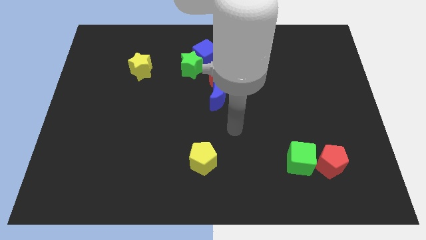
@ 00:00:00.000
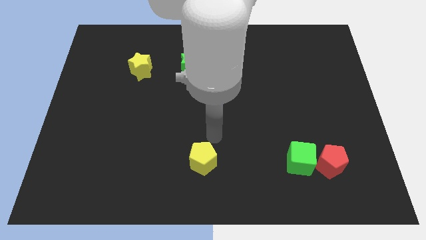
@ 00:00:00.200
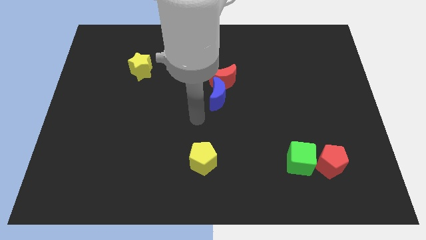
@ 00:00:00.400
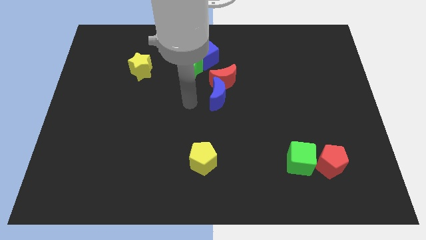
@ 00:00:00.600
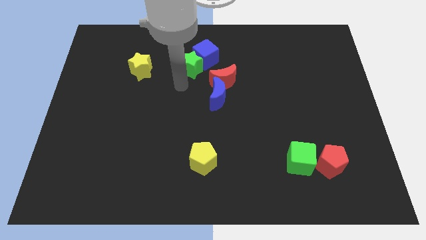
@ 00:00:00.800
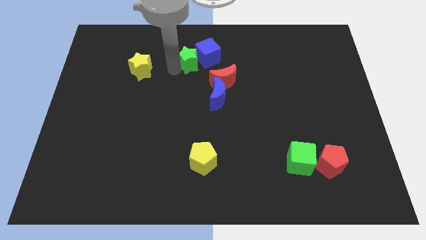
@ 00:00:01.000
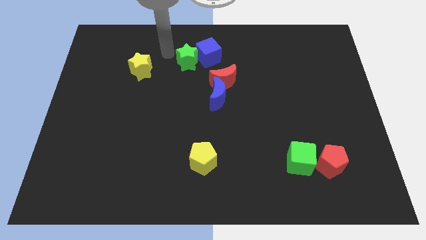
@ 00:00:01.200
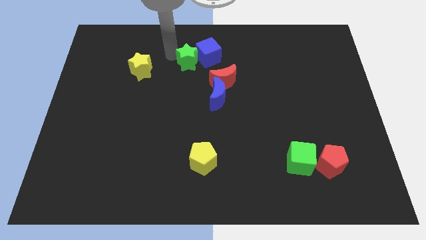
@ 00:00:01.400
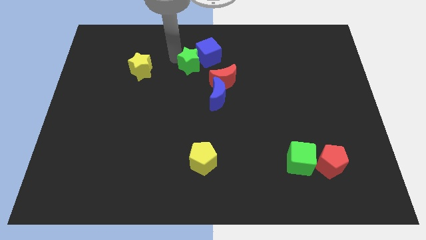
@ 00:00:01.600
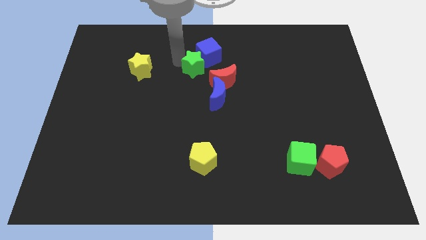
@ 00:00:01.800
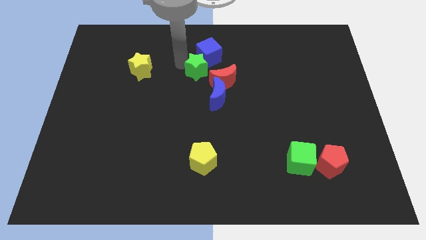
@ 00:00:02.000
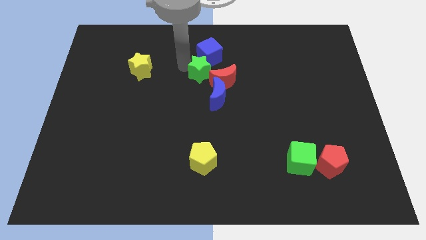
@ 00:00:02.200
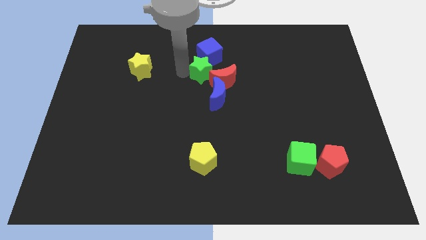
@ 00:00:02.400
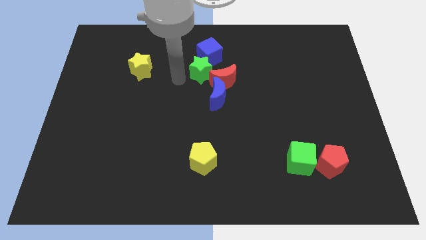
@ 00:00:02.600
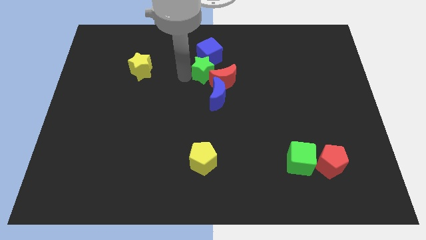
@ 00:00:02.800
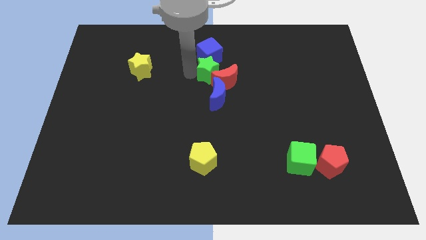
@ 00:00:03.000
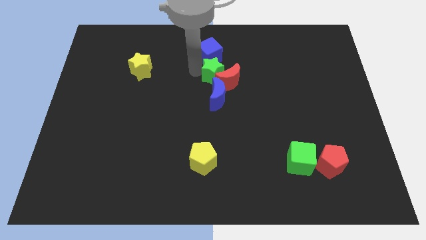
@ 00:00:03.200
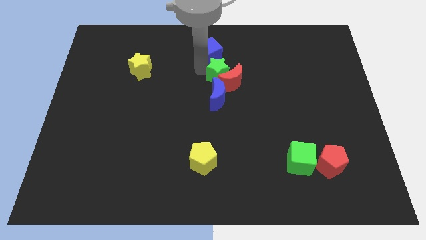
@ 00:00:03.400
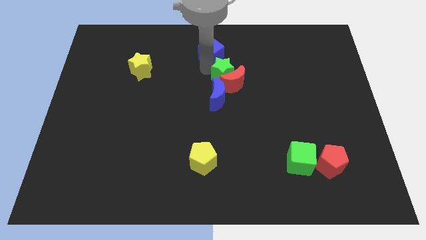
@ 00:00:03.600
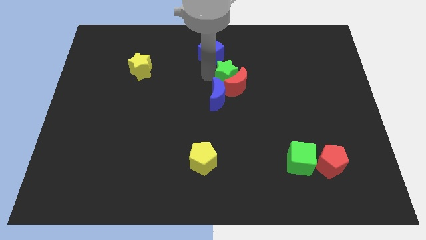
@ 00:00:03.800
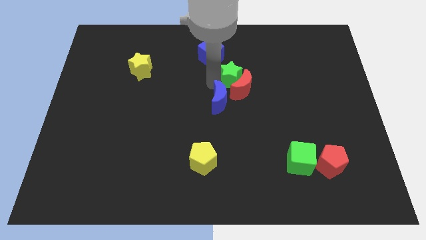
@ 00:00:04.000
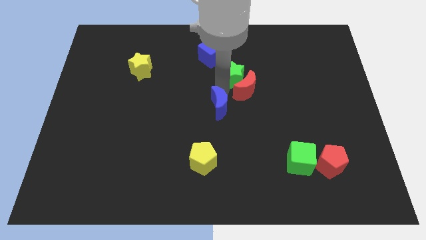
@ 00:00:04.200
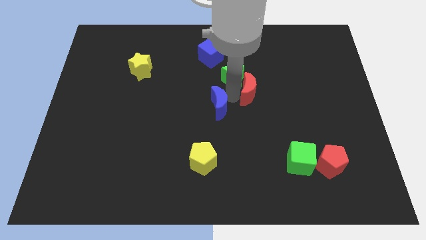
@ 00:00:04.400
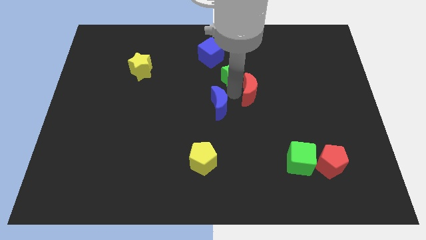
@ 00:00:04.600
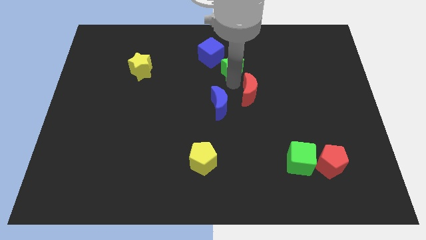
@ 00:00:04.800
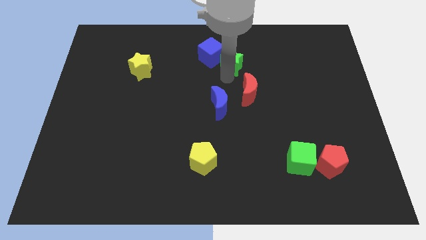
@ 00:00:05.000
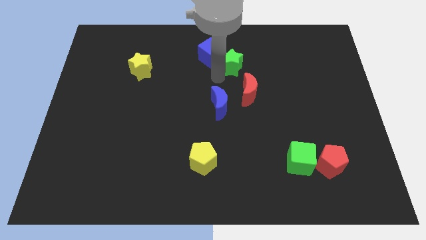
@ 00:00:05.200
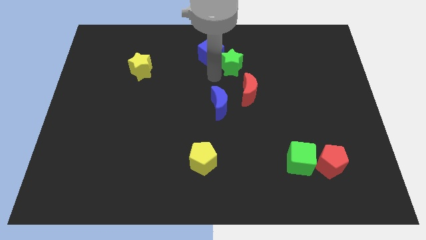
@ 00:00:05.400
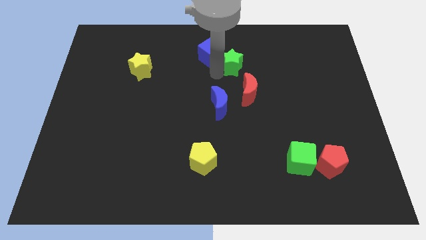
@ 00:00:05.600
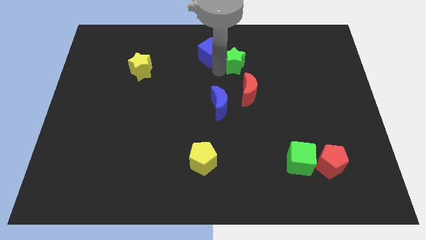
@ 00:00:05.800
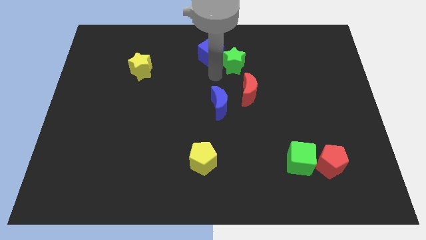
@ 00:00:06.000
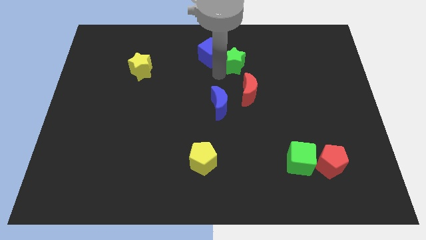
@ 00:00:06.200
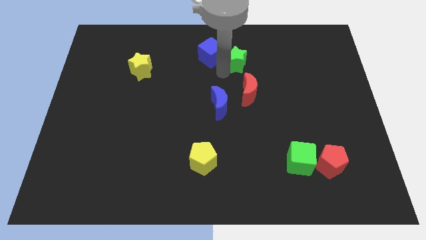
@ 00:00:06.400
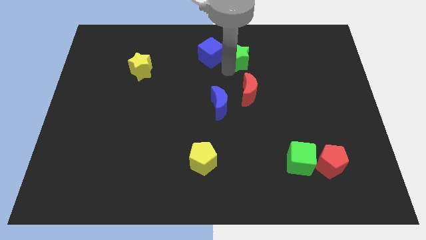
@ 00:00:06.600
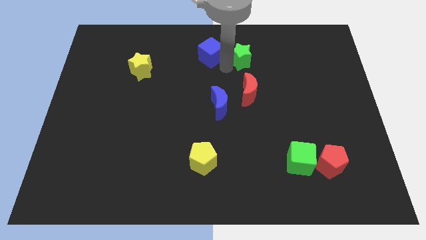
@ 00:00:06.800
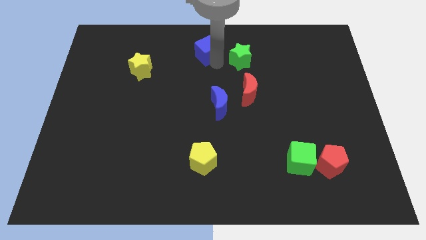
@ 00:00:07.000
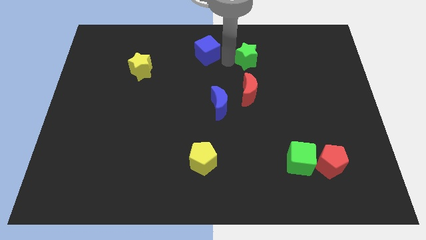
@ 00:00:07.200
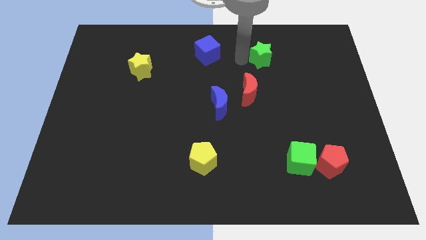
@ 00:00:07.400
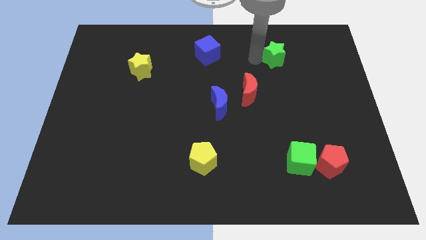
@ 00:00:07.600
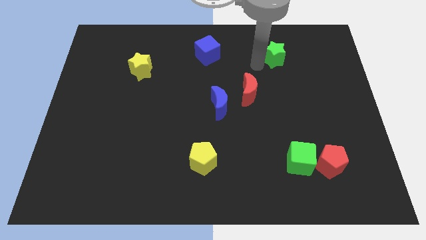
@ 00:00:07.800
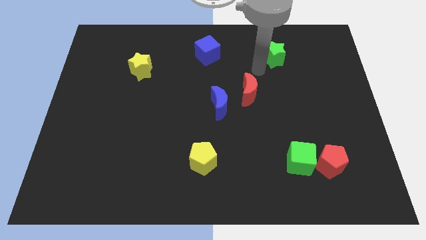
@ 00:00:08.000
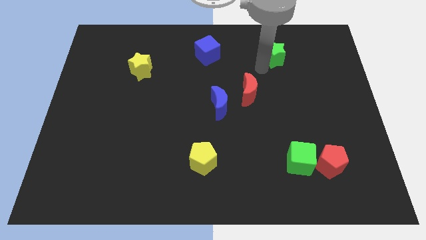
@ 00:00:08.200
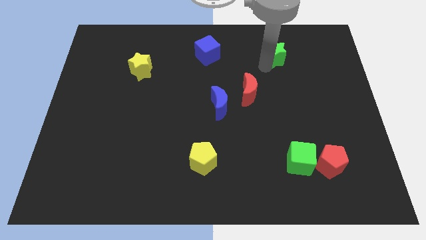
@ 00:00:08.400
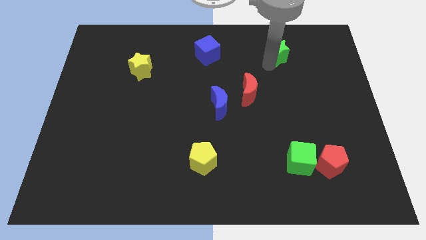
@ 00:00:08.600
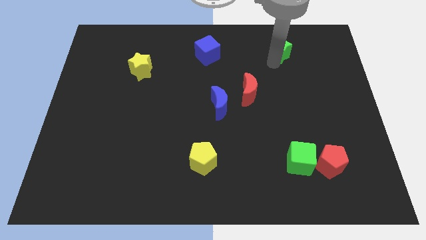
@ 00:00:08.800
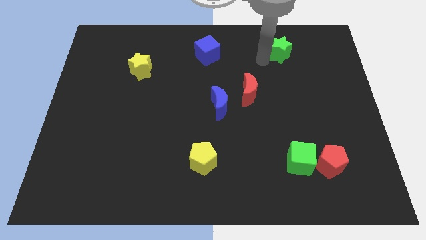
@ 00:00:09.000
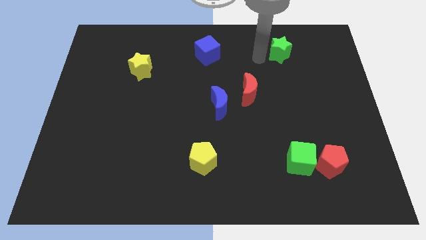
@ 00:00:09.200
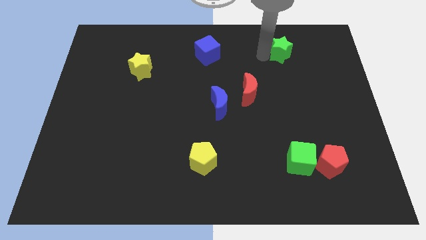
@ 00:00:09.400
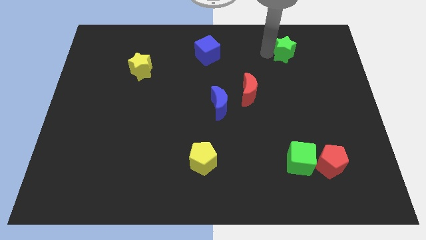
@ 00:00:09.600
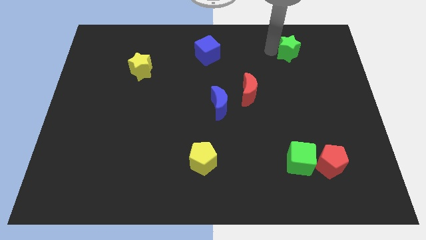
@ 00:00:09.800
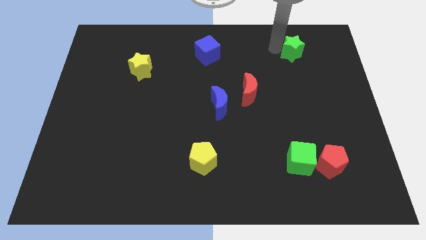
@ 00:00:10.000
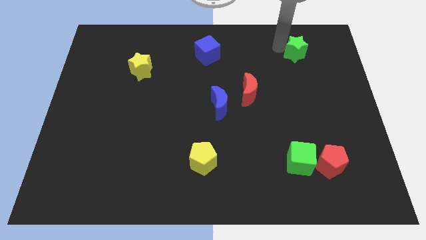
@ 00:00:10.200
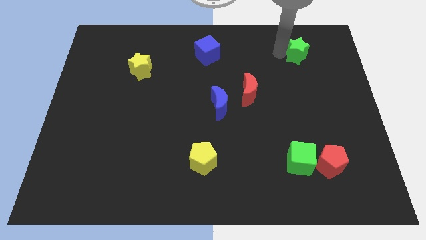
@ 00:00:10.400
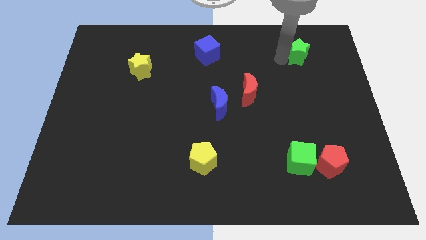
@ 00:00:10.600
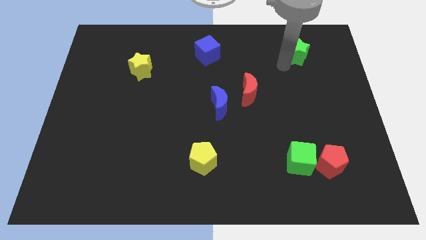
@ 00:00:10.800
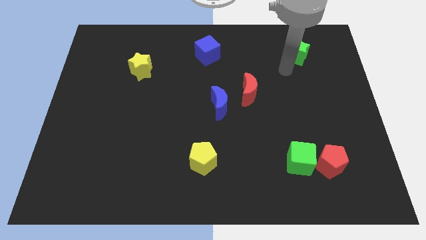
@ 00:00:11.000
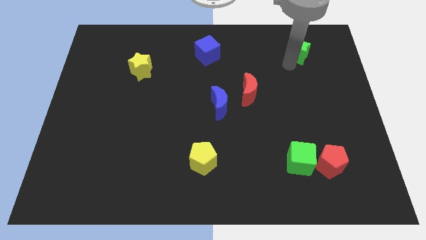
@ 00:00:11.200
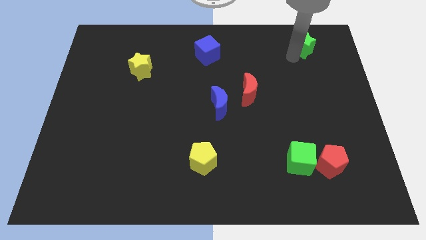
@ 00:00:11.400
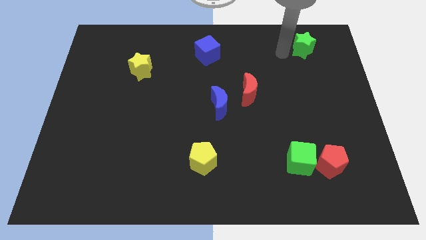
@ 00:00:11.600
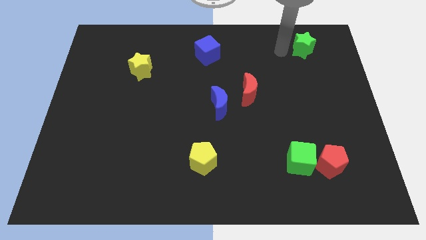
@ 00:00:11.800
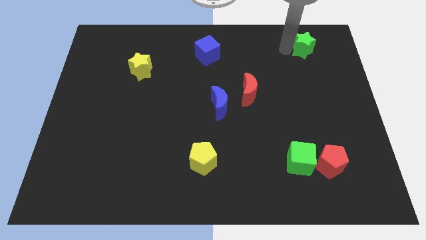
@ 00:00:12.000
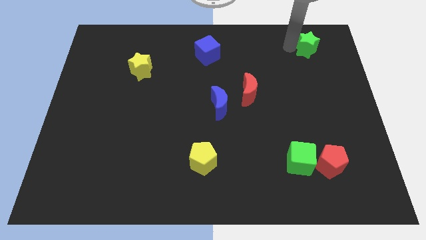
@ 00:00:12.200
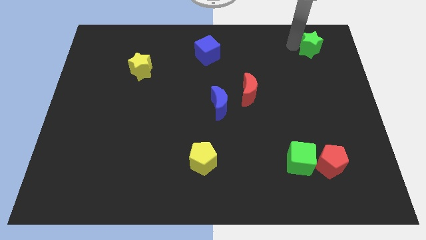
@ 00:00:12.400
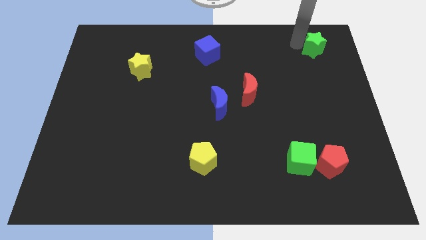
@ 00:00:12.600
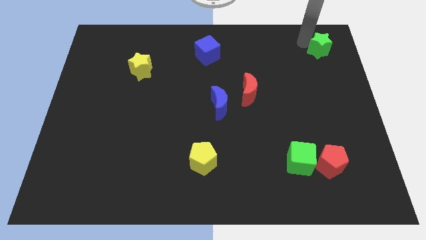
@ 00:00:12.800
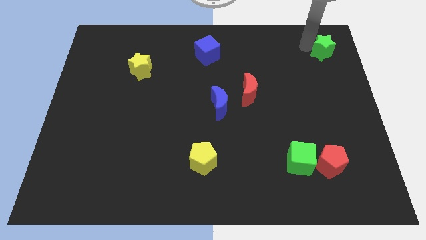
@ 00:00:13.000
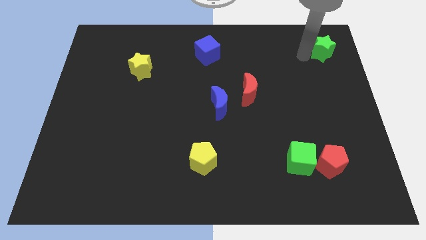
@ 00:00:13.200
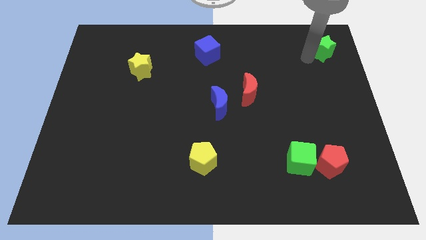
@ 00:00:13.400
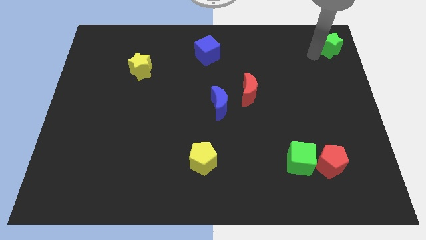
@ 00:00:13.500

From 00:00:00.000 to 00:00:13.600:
push the green star to the top right corner
